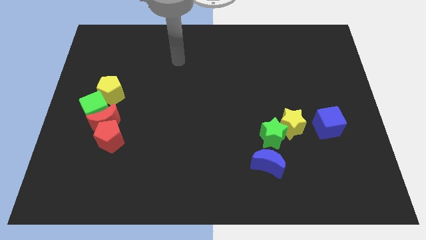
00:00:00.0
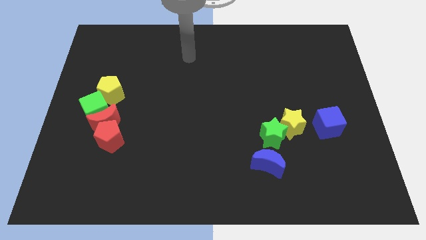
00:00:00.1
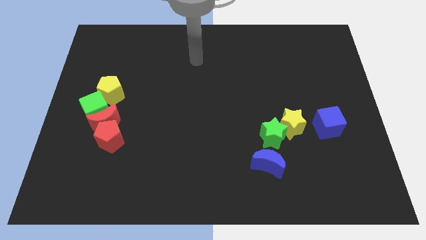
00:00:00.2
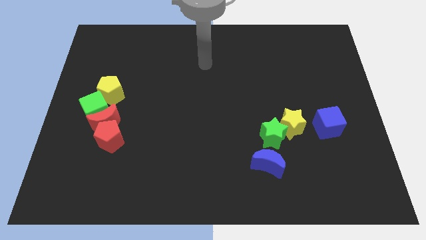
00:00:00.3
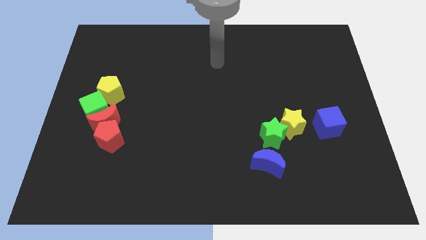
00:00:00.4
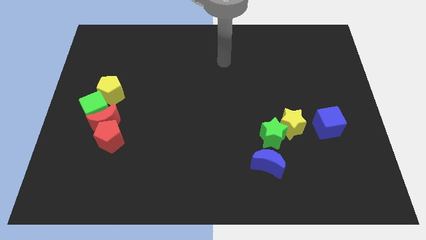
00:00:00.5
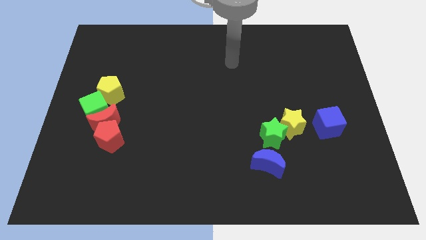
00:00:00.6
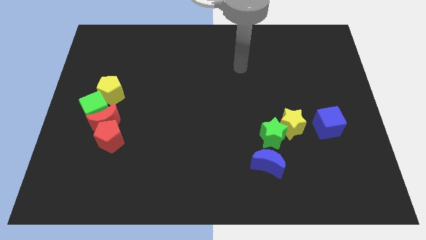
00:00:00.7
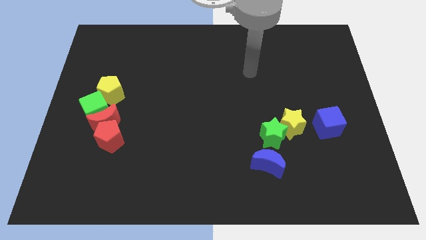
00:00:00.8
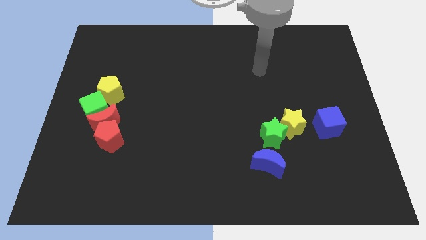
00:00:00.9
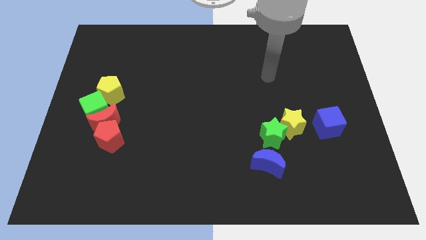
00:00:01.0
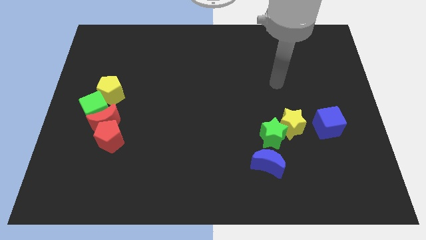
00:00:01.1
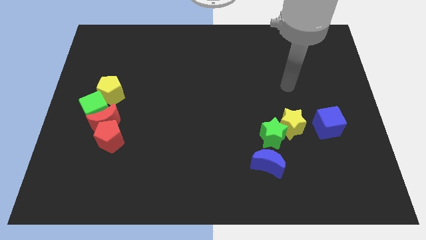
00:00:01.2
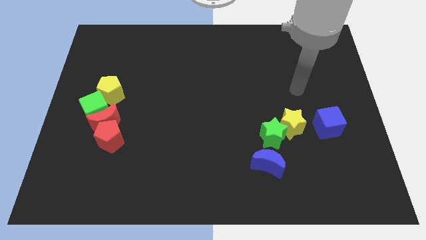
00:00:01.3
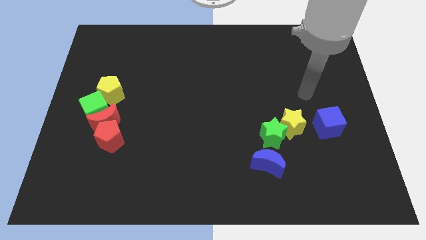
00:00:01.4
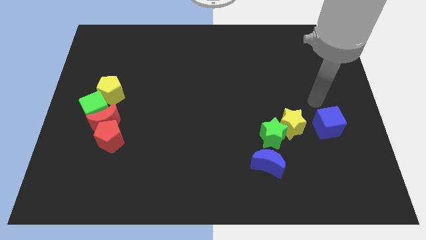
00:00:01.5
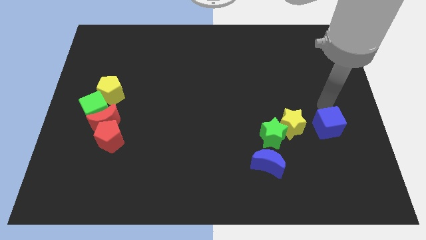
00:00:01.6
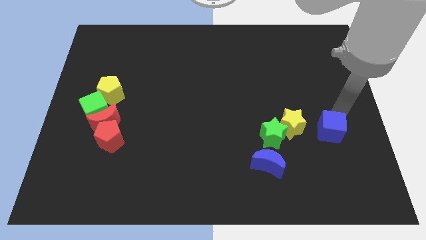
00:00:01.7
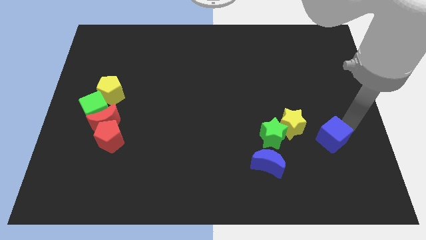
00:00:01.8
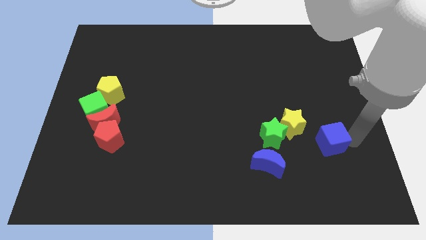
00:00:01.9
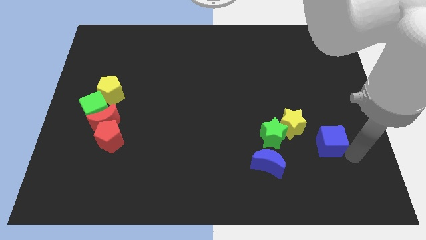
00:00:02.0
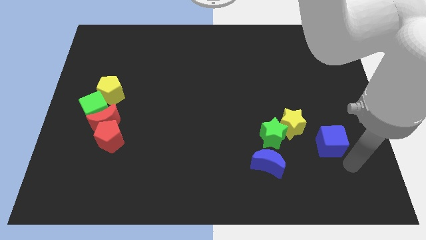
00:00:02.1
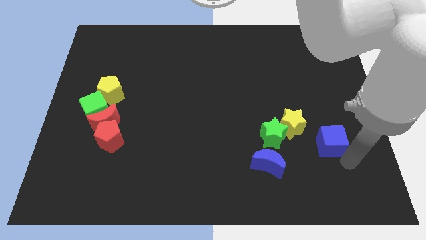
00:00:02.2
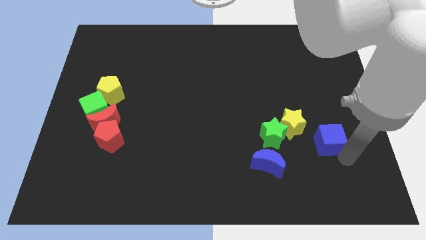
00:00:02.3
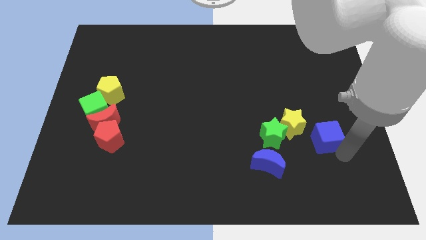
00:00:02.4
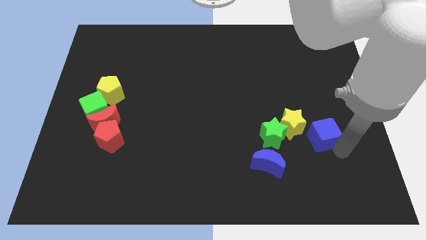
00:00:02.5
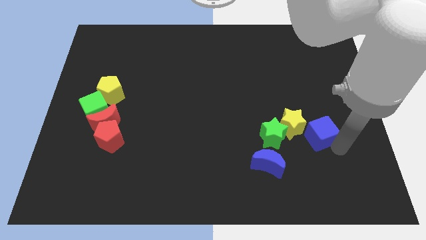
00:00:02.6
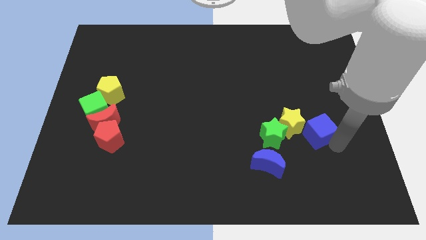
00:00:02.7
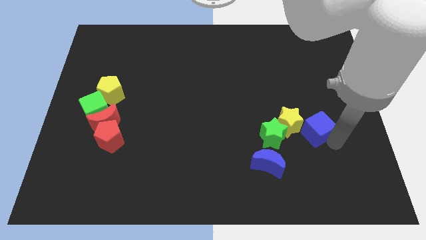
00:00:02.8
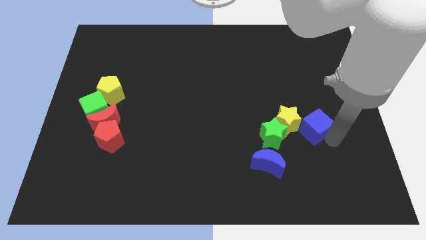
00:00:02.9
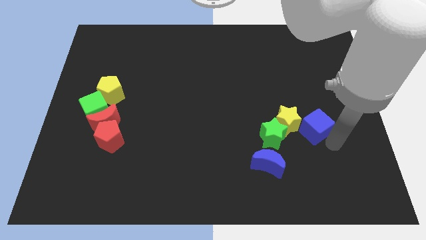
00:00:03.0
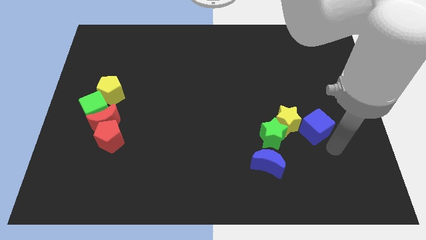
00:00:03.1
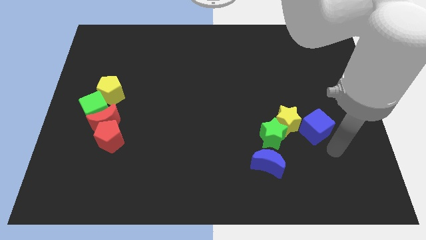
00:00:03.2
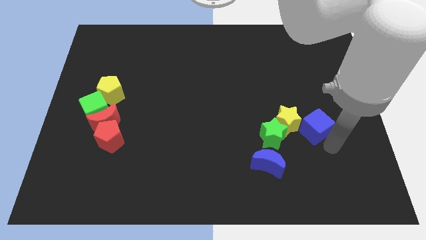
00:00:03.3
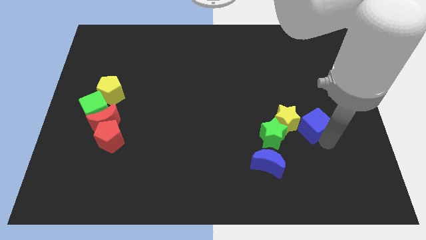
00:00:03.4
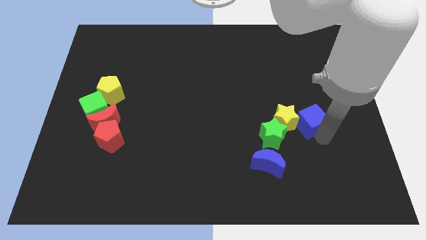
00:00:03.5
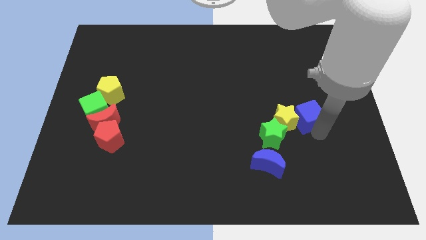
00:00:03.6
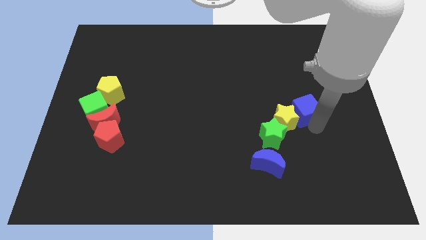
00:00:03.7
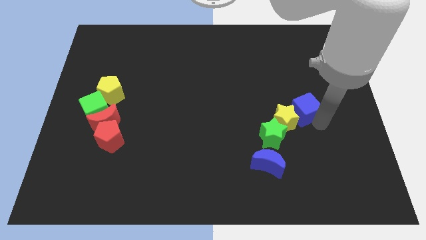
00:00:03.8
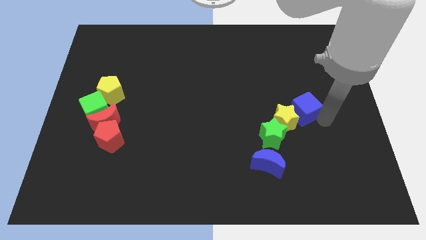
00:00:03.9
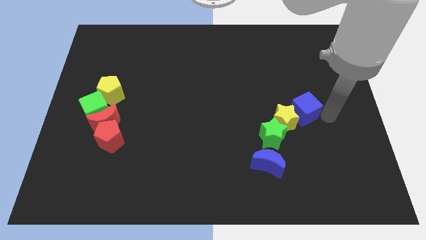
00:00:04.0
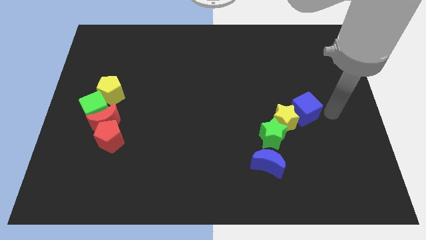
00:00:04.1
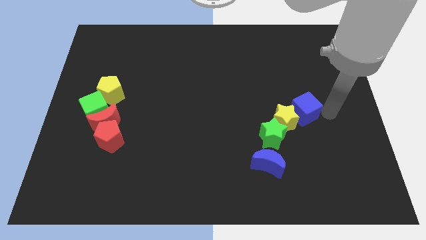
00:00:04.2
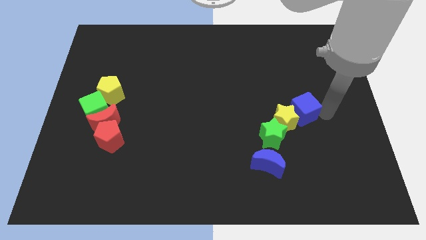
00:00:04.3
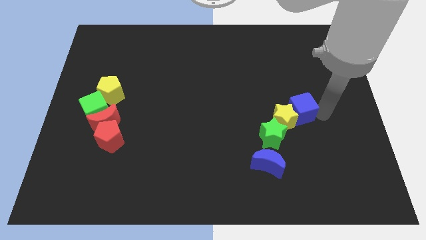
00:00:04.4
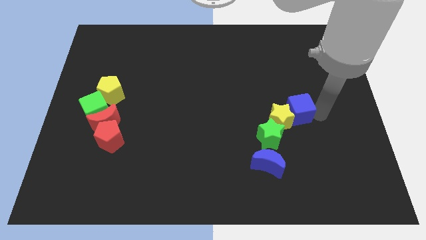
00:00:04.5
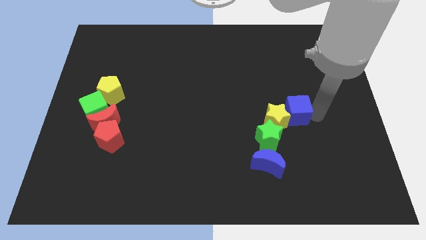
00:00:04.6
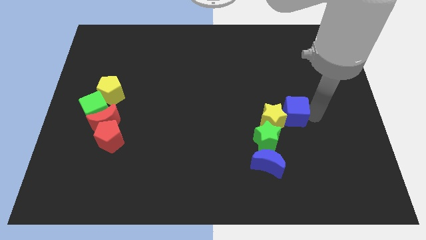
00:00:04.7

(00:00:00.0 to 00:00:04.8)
push the blue cube a little left

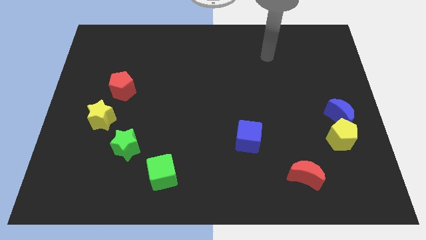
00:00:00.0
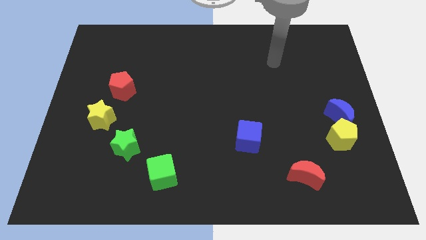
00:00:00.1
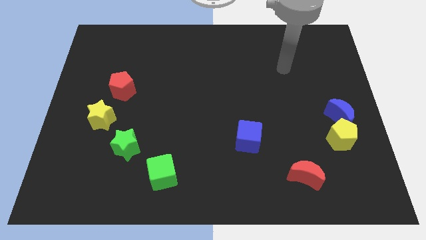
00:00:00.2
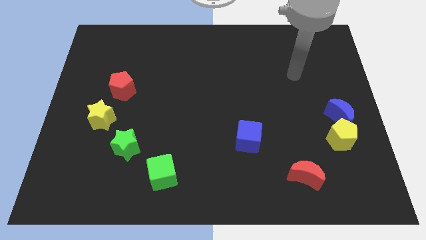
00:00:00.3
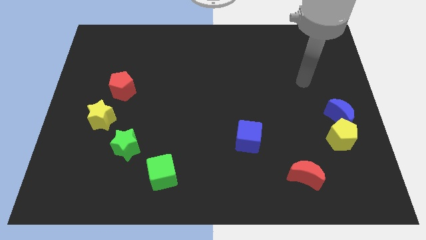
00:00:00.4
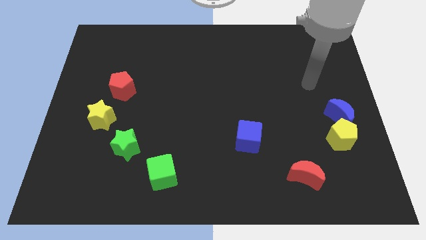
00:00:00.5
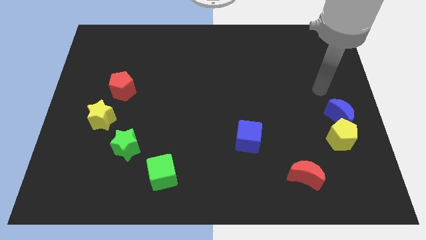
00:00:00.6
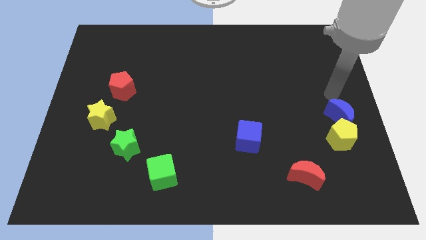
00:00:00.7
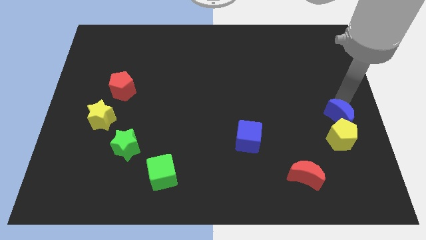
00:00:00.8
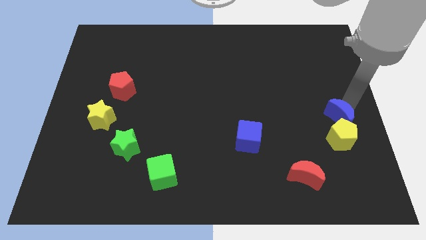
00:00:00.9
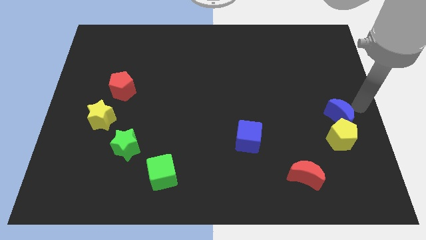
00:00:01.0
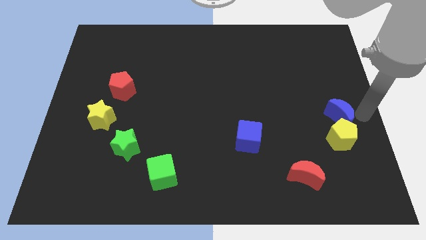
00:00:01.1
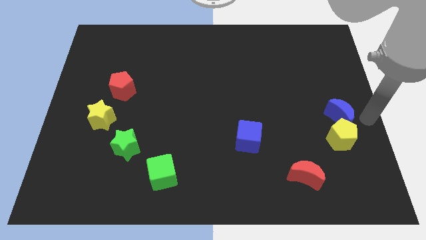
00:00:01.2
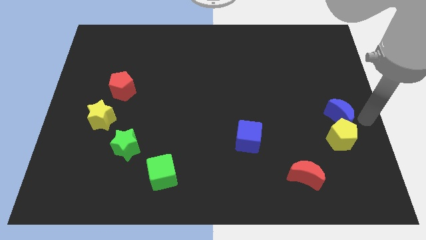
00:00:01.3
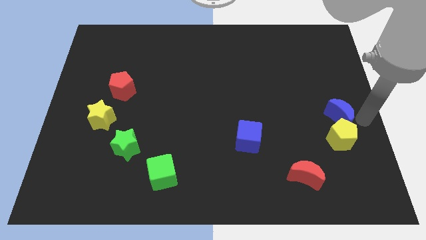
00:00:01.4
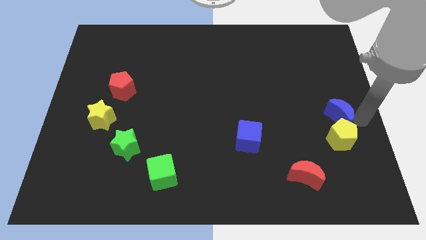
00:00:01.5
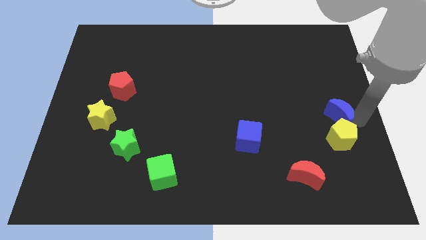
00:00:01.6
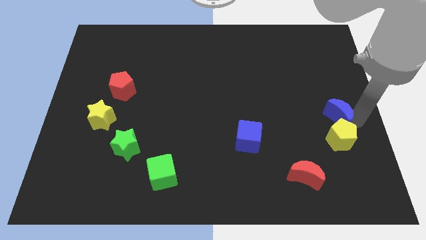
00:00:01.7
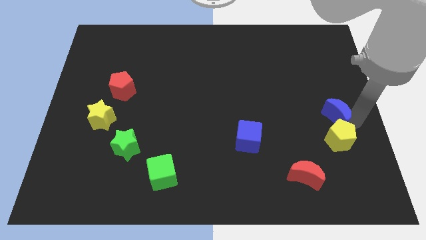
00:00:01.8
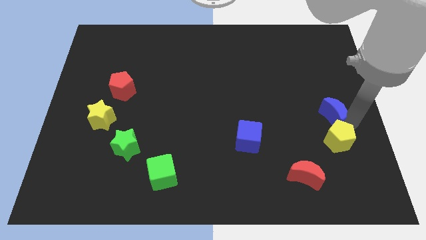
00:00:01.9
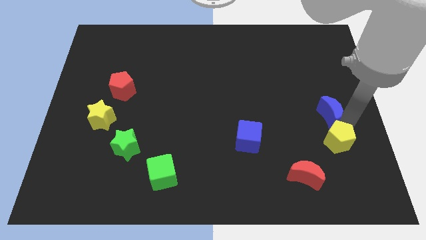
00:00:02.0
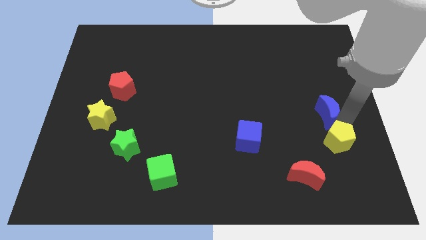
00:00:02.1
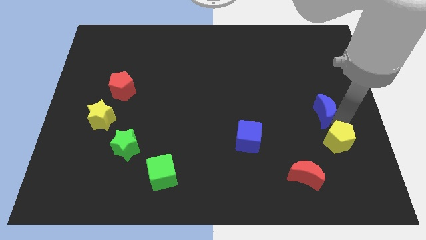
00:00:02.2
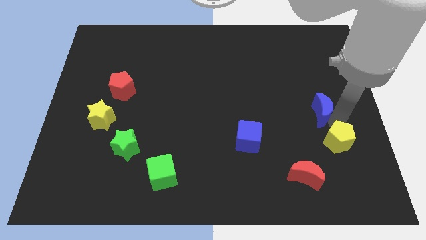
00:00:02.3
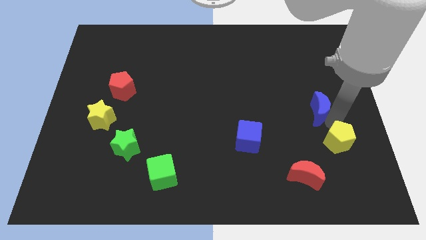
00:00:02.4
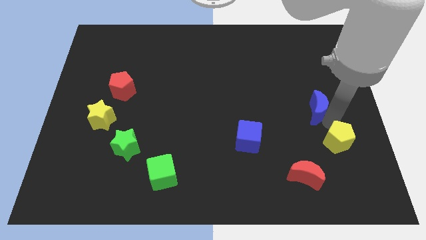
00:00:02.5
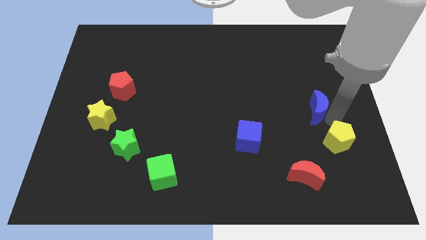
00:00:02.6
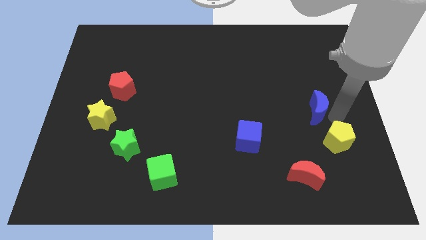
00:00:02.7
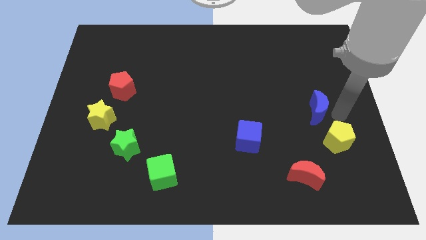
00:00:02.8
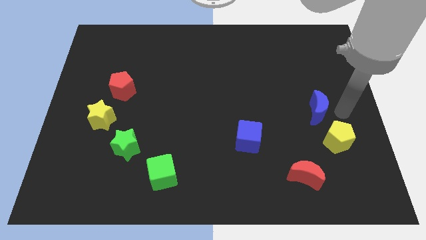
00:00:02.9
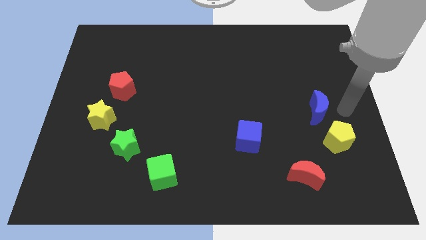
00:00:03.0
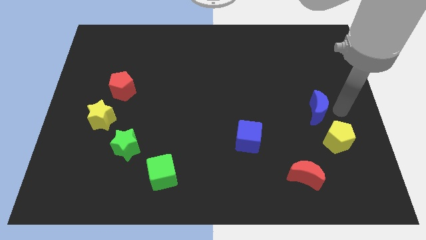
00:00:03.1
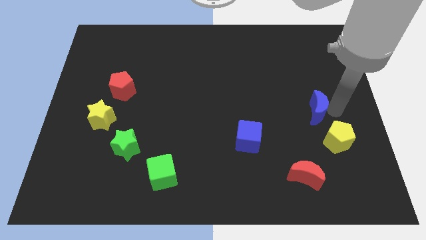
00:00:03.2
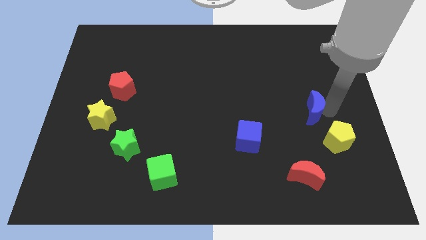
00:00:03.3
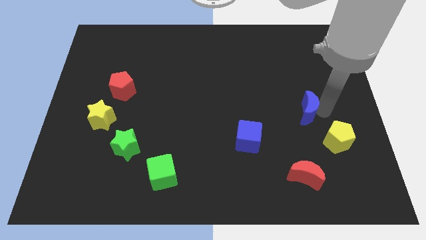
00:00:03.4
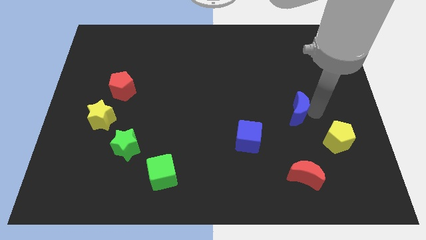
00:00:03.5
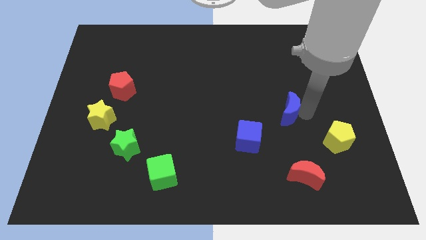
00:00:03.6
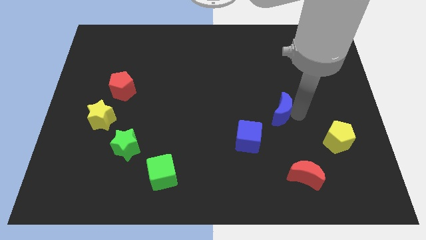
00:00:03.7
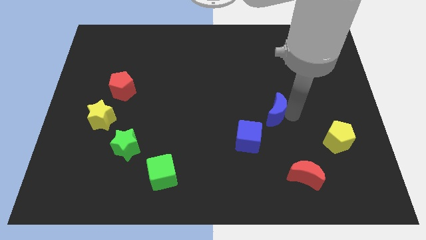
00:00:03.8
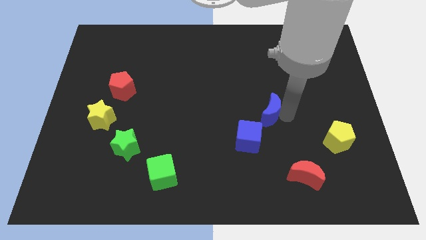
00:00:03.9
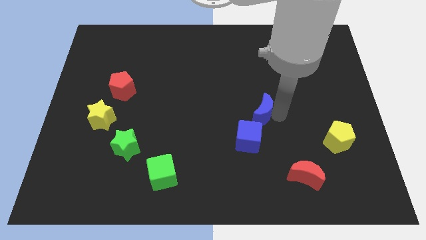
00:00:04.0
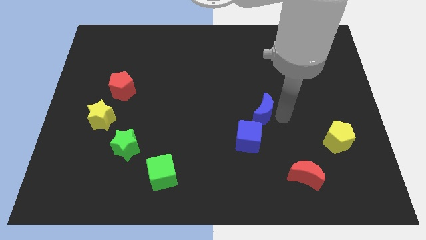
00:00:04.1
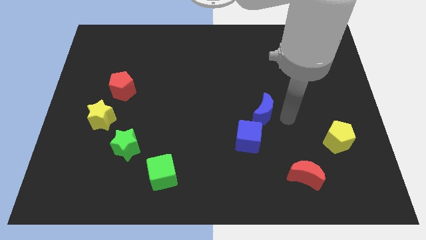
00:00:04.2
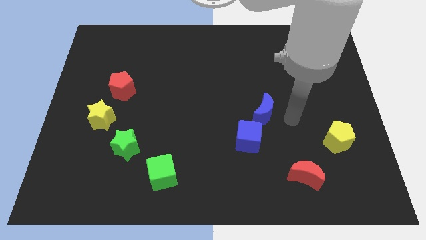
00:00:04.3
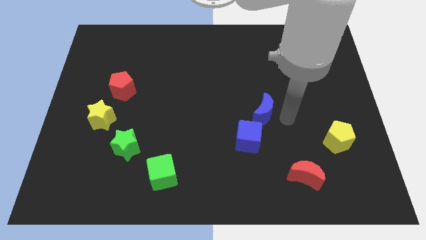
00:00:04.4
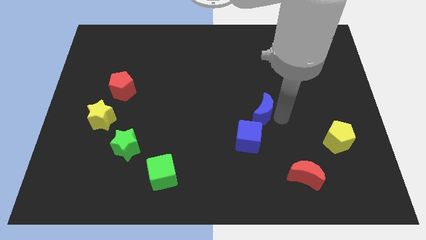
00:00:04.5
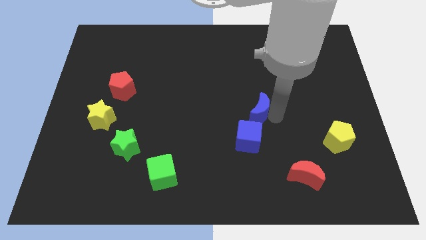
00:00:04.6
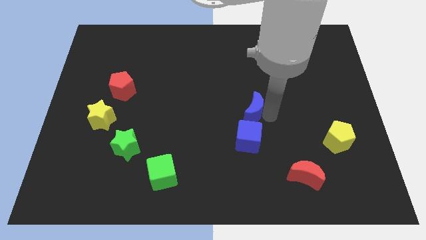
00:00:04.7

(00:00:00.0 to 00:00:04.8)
slide the blue moon left
